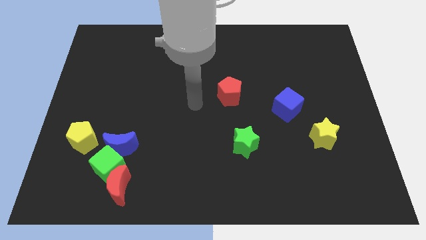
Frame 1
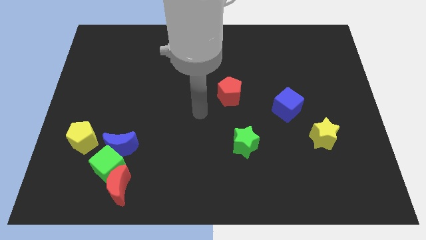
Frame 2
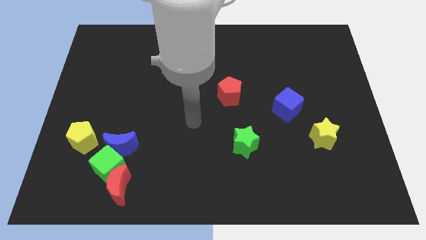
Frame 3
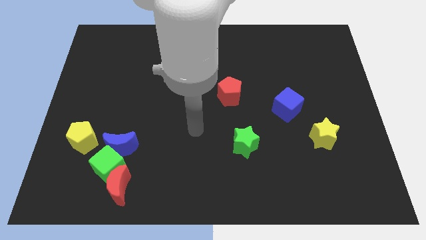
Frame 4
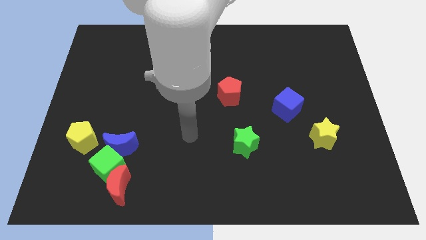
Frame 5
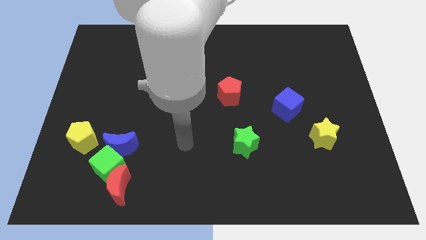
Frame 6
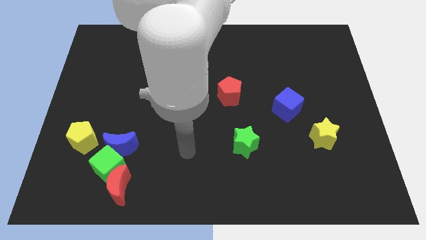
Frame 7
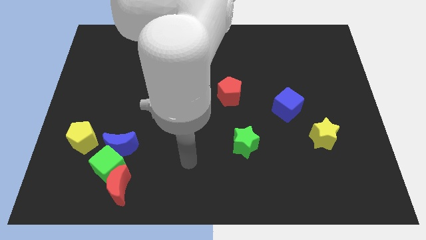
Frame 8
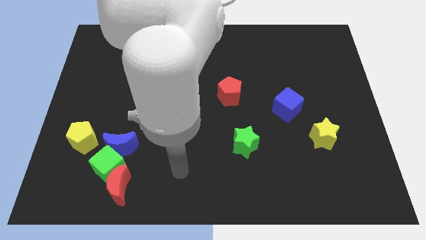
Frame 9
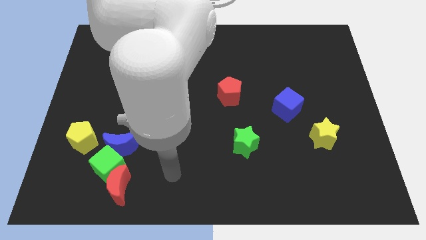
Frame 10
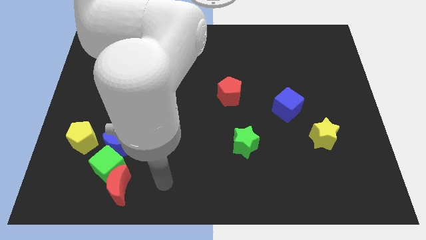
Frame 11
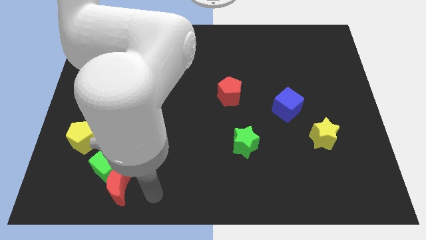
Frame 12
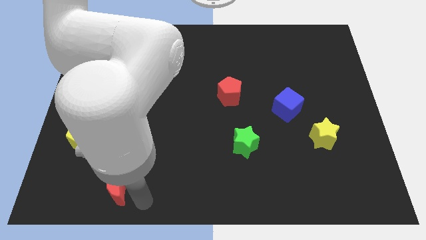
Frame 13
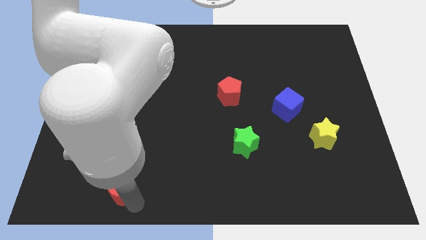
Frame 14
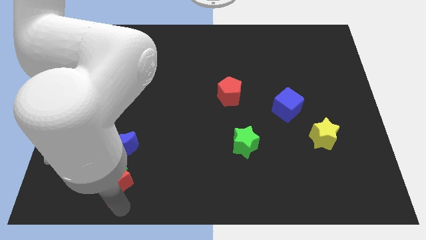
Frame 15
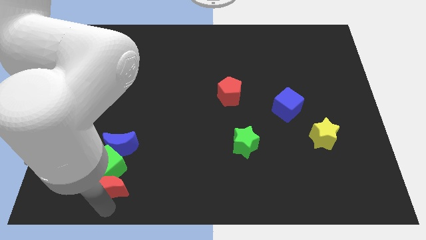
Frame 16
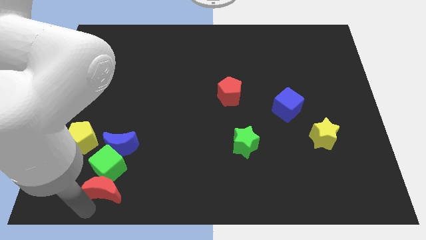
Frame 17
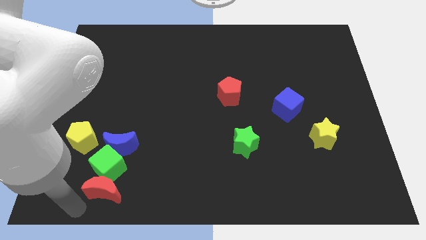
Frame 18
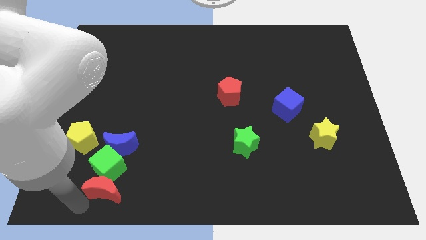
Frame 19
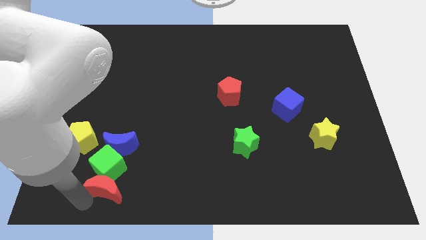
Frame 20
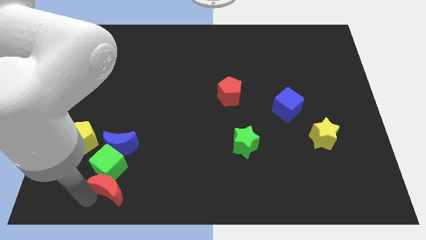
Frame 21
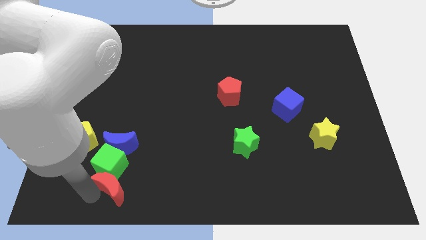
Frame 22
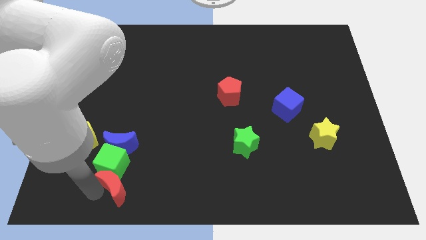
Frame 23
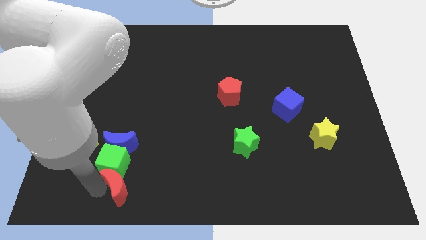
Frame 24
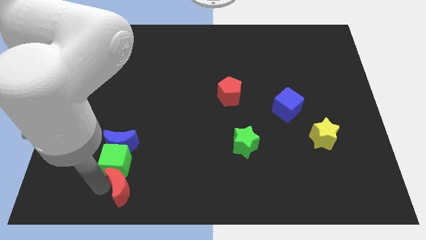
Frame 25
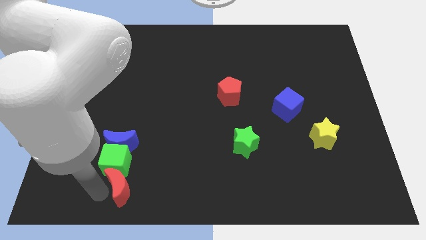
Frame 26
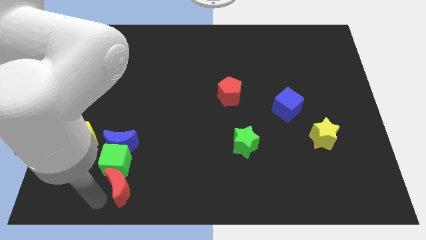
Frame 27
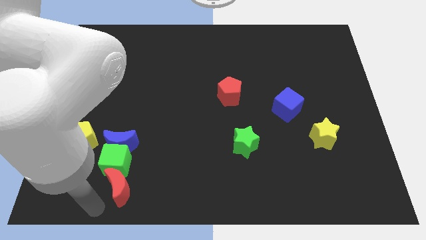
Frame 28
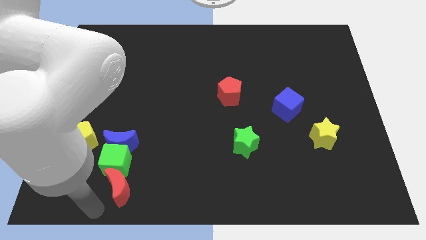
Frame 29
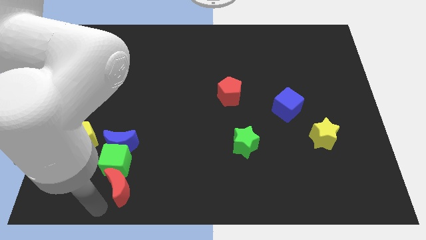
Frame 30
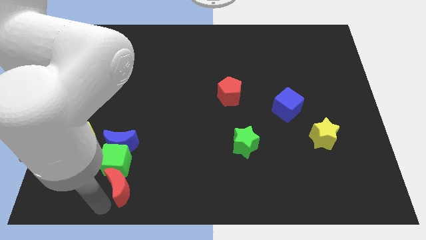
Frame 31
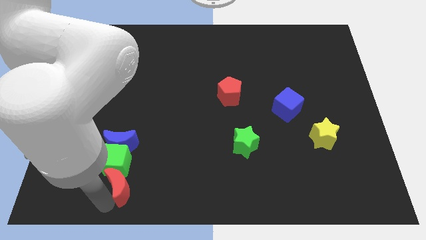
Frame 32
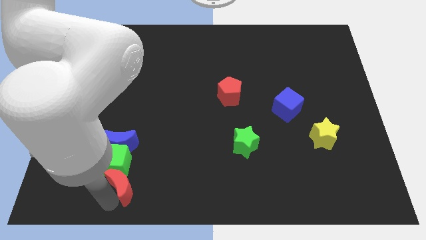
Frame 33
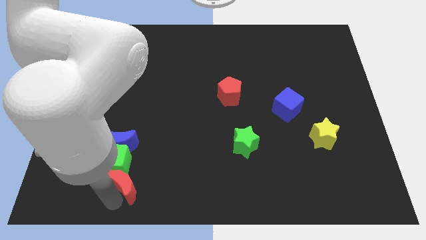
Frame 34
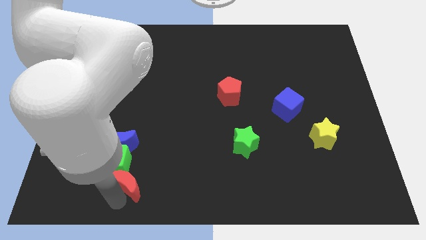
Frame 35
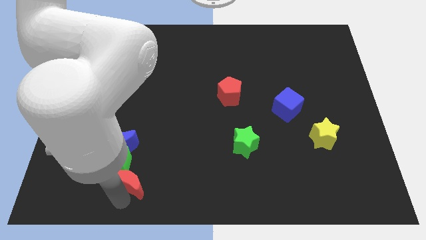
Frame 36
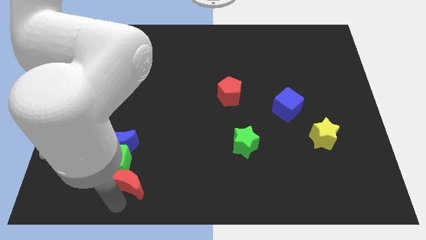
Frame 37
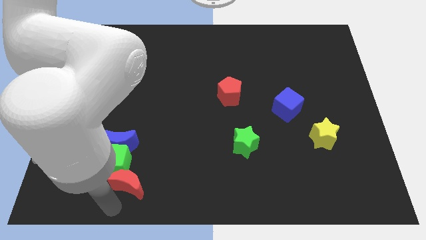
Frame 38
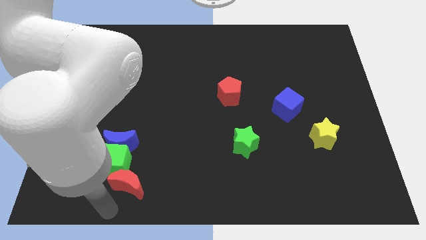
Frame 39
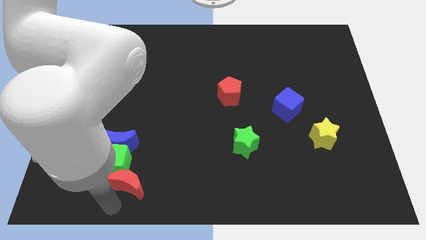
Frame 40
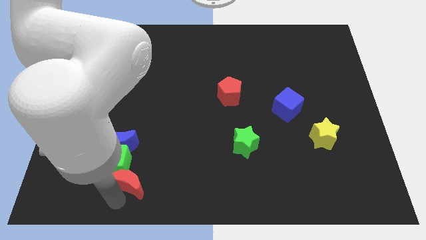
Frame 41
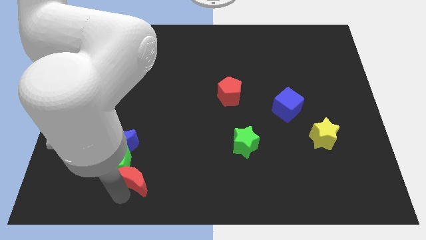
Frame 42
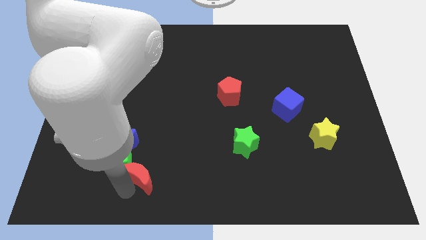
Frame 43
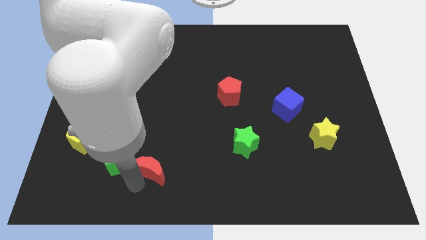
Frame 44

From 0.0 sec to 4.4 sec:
move the red moon upwards and to the right diagonally a bit

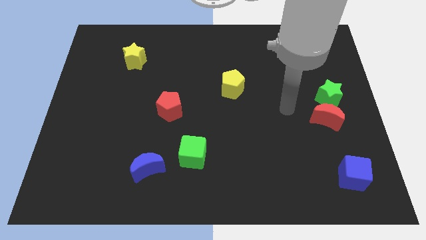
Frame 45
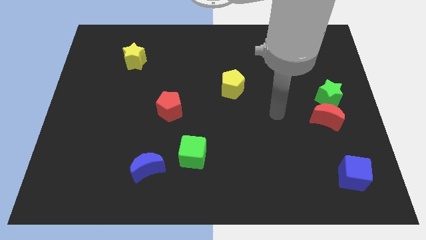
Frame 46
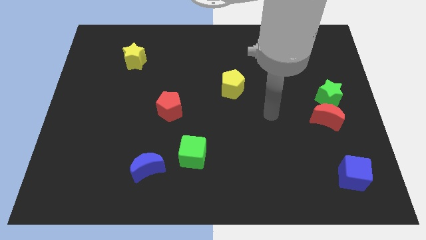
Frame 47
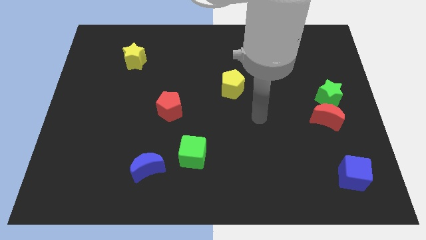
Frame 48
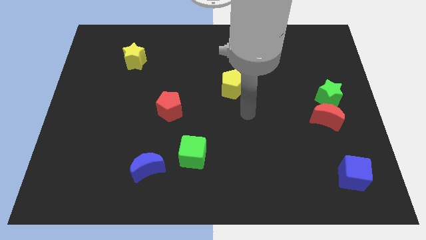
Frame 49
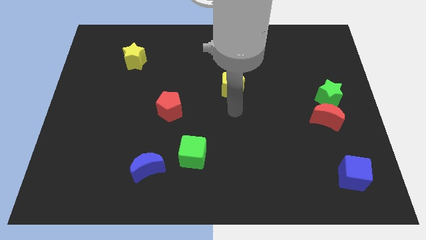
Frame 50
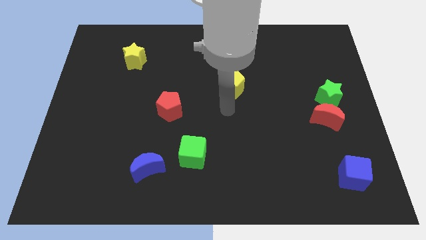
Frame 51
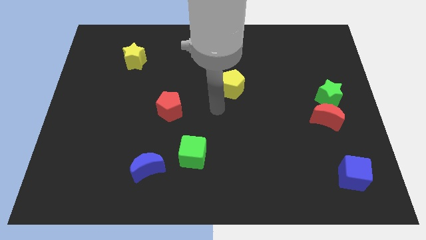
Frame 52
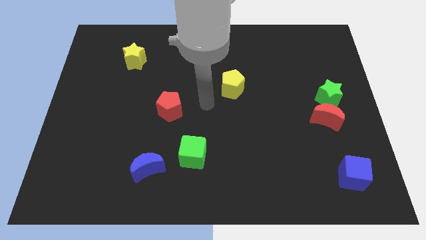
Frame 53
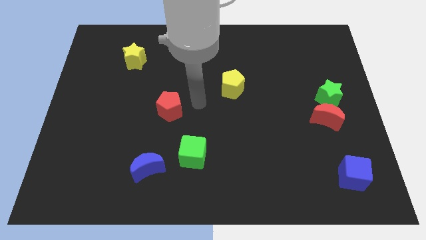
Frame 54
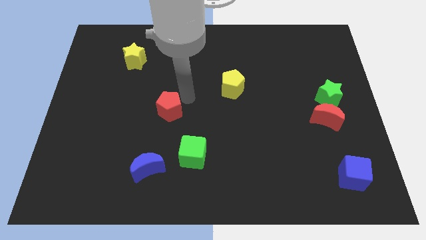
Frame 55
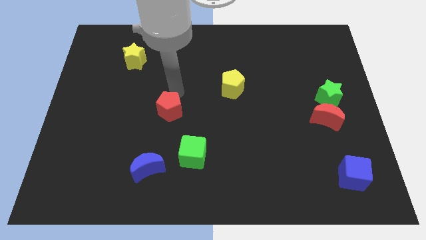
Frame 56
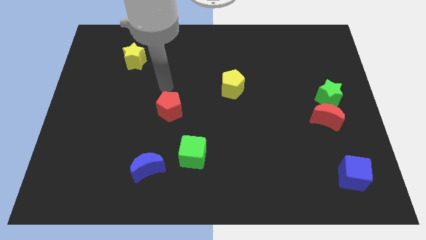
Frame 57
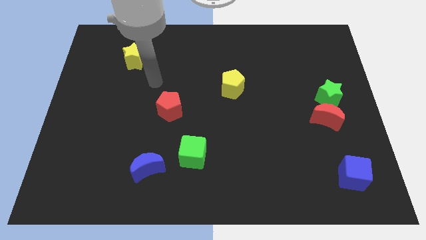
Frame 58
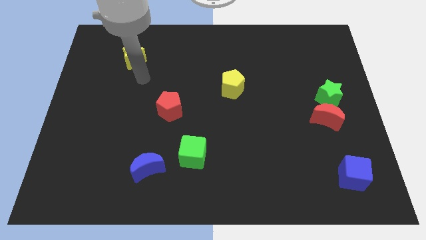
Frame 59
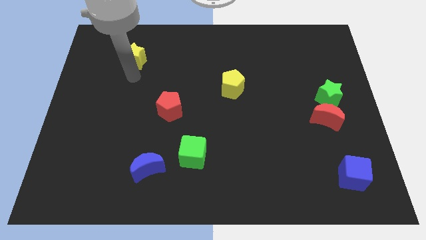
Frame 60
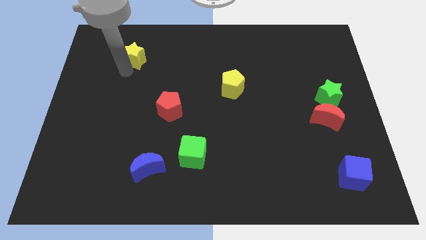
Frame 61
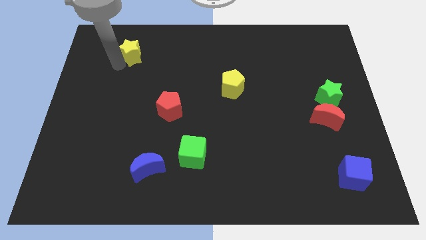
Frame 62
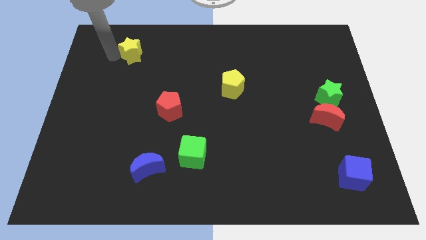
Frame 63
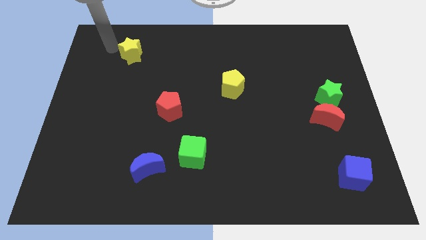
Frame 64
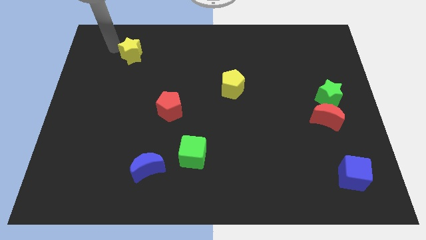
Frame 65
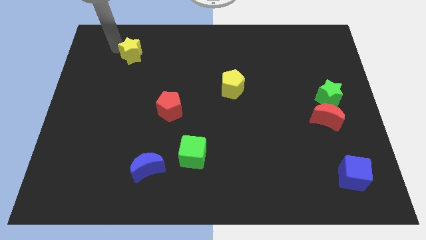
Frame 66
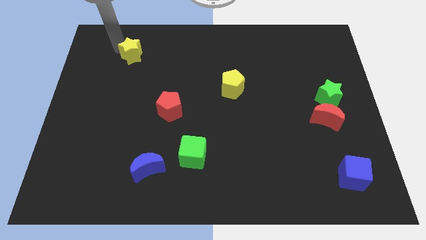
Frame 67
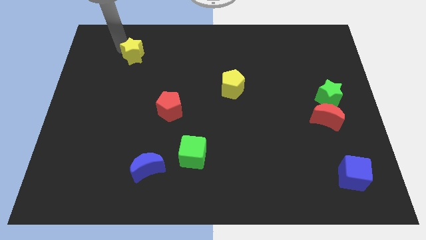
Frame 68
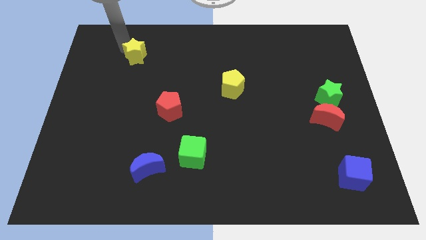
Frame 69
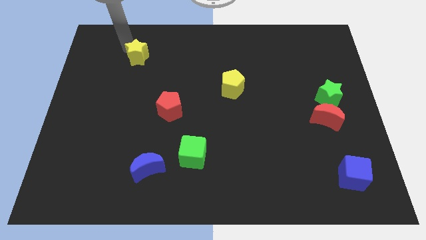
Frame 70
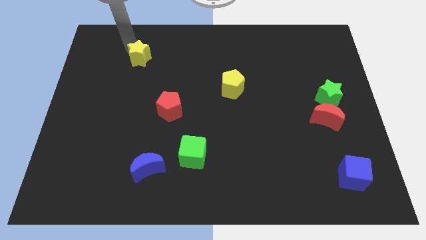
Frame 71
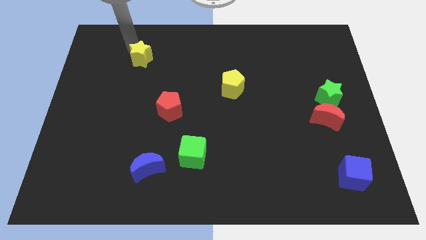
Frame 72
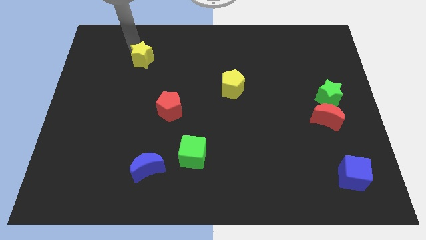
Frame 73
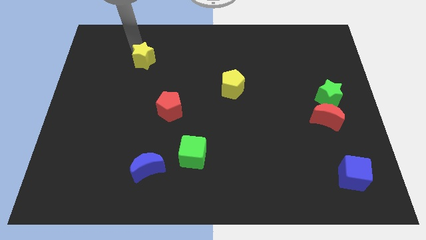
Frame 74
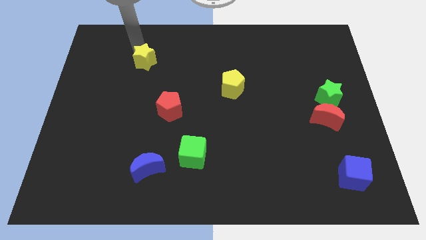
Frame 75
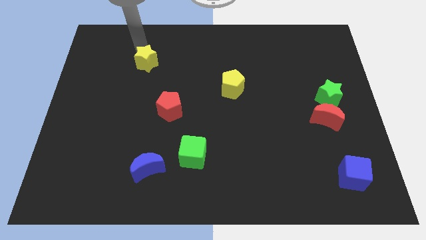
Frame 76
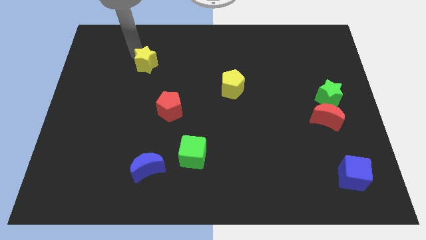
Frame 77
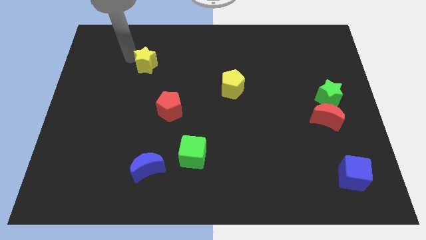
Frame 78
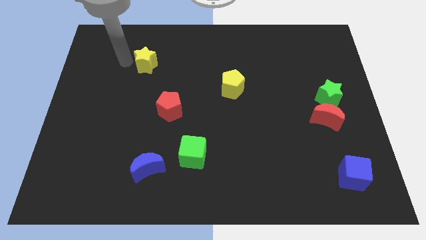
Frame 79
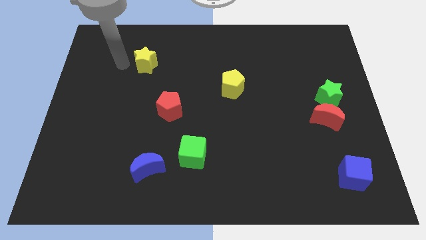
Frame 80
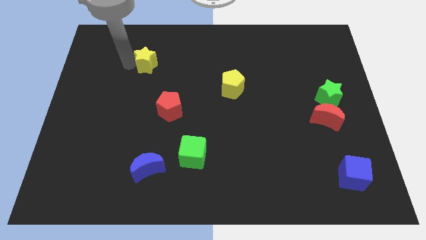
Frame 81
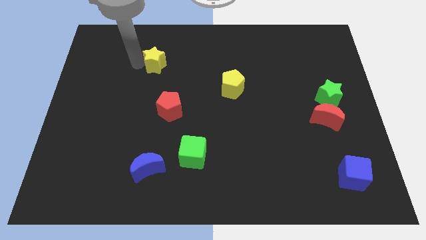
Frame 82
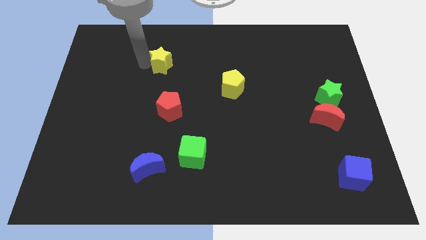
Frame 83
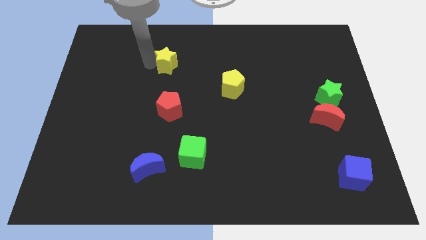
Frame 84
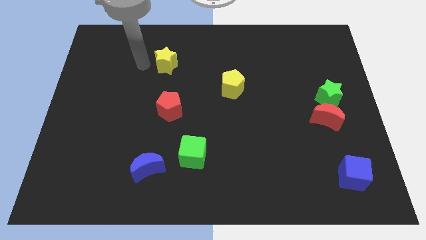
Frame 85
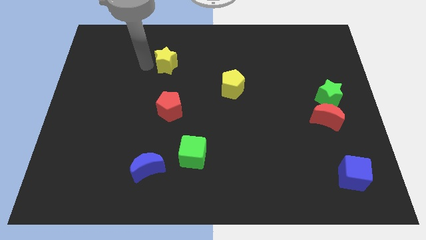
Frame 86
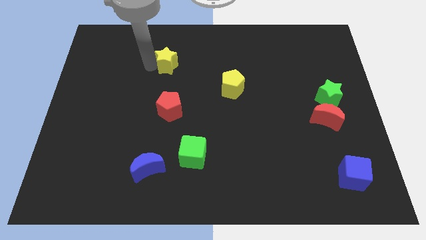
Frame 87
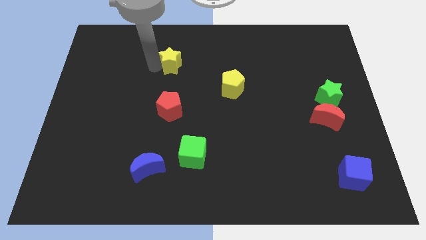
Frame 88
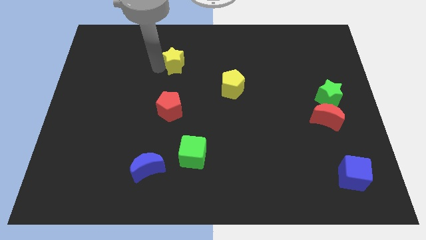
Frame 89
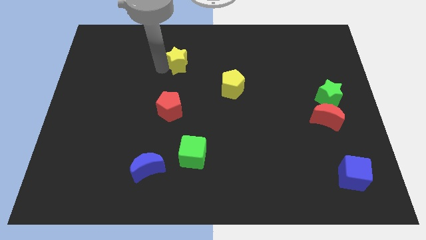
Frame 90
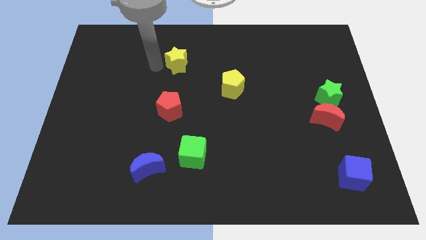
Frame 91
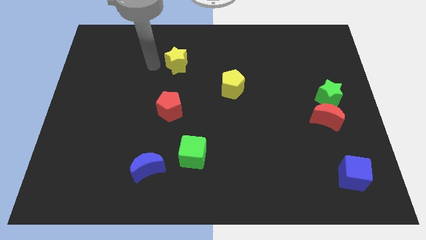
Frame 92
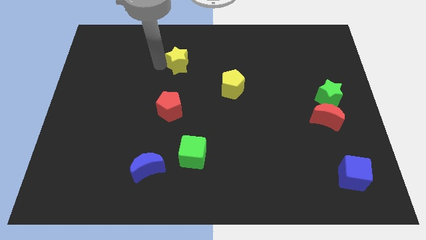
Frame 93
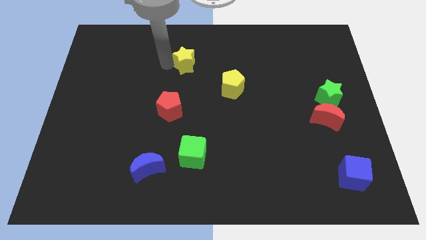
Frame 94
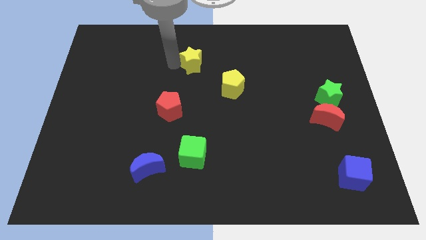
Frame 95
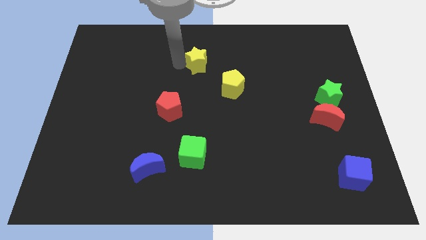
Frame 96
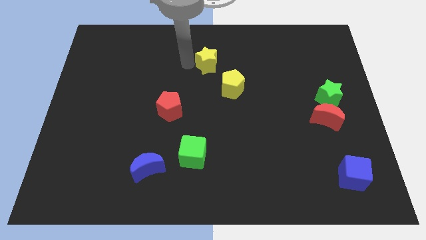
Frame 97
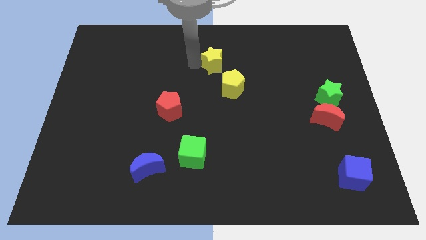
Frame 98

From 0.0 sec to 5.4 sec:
move the yellow star to the right
